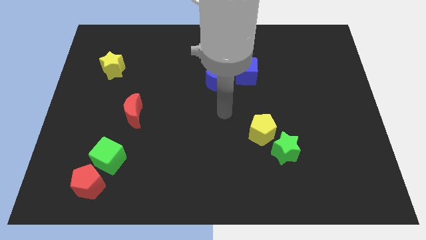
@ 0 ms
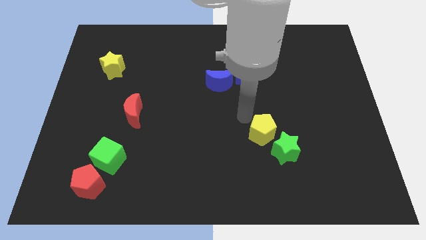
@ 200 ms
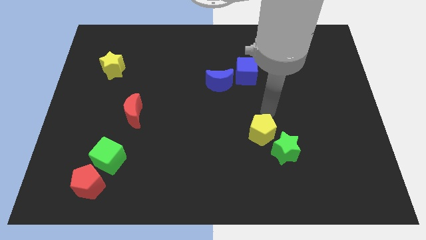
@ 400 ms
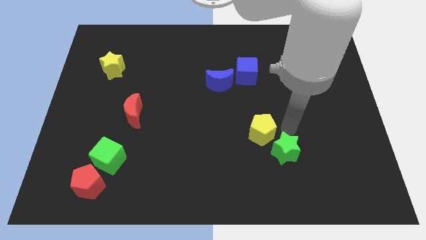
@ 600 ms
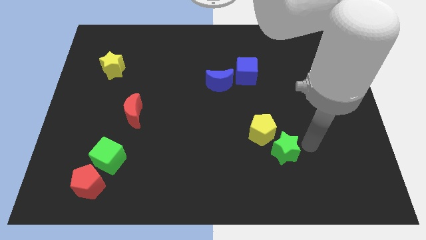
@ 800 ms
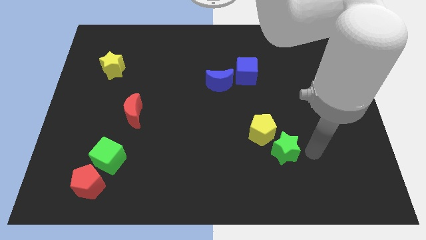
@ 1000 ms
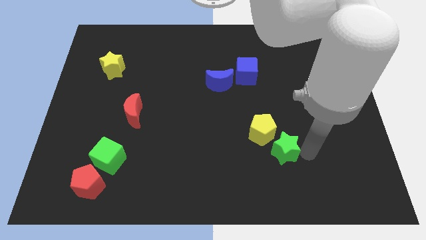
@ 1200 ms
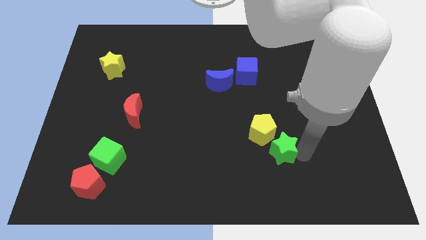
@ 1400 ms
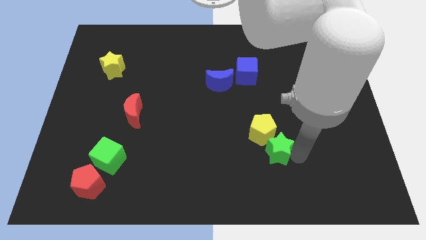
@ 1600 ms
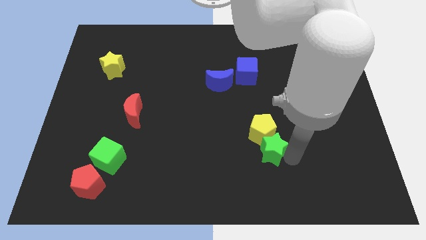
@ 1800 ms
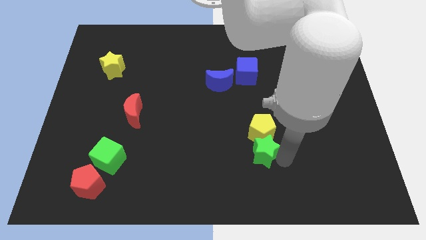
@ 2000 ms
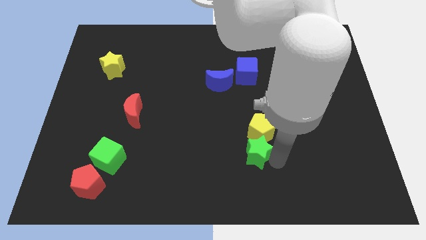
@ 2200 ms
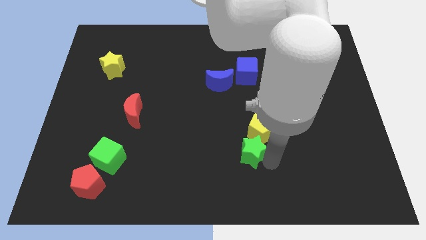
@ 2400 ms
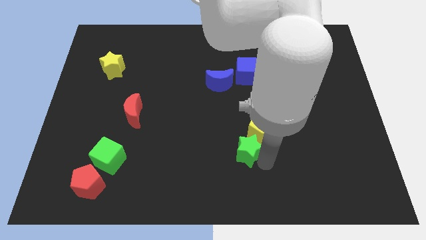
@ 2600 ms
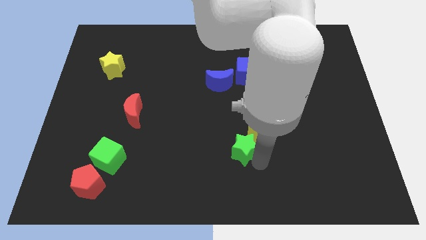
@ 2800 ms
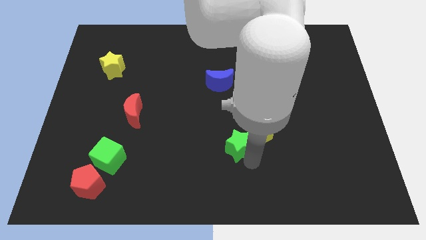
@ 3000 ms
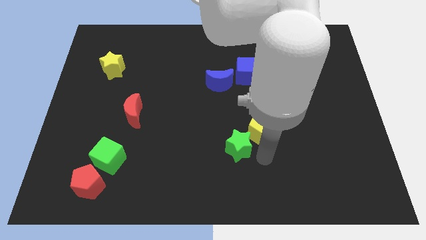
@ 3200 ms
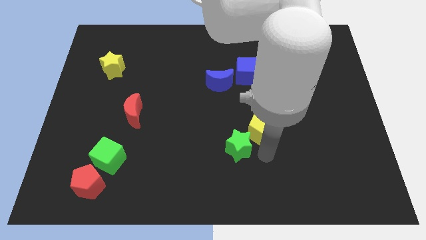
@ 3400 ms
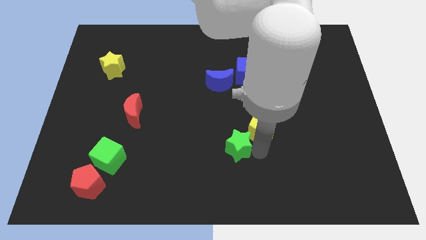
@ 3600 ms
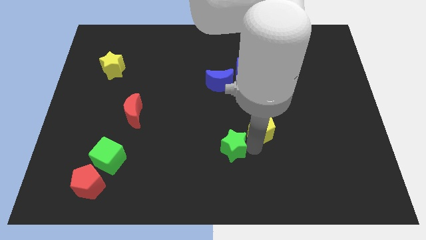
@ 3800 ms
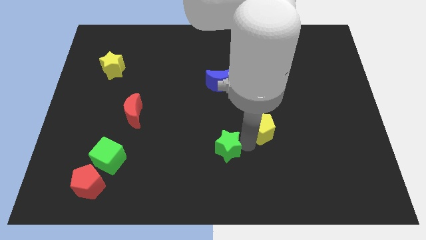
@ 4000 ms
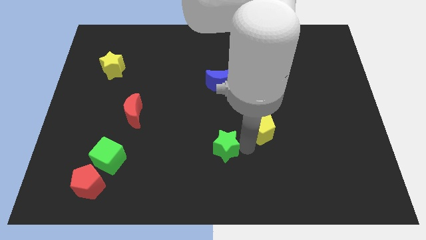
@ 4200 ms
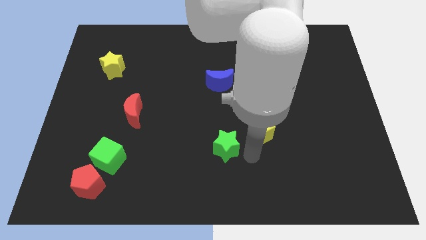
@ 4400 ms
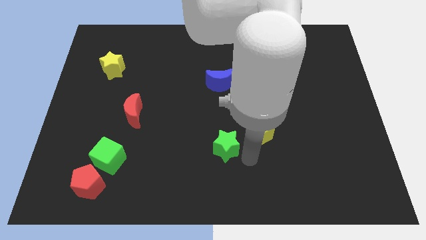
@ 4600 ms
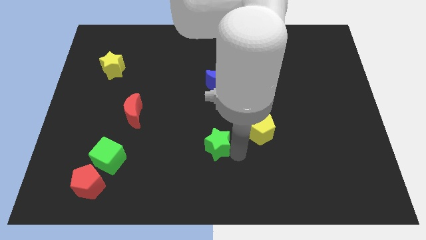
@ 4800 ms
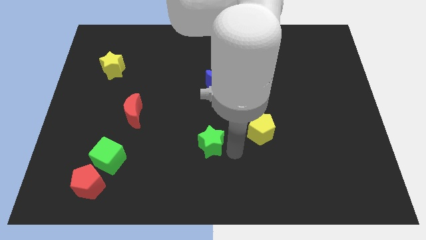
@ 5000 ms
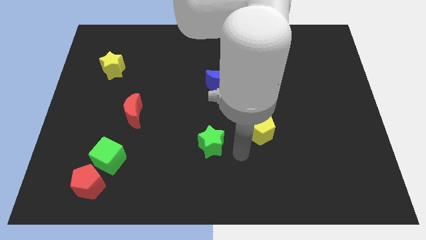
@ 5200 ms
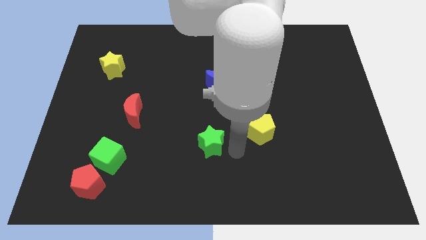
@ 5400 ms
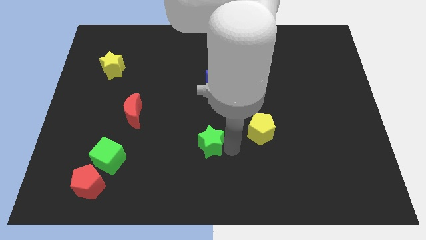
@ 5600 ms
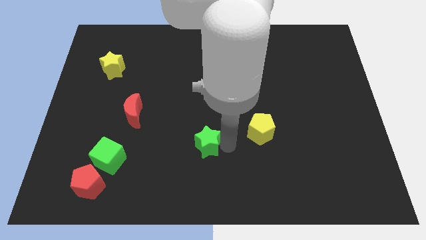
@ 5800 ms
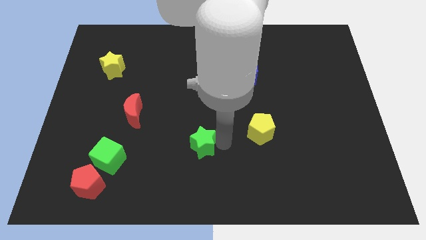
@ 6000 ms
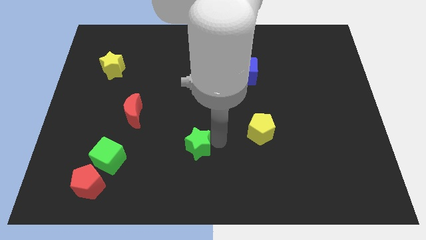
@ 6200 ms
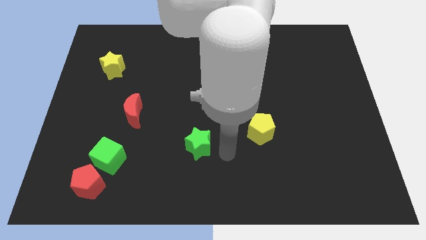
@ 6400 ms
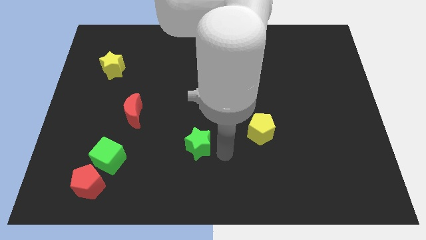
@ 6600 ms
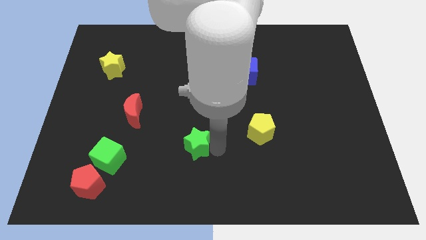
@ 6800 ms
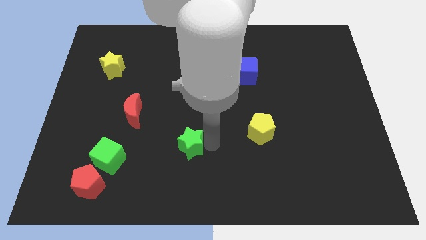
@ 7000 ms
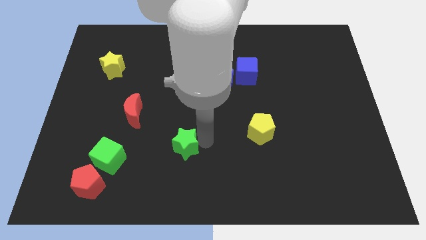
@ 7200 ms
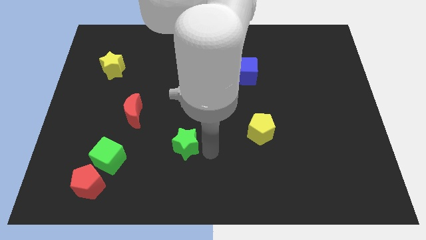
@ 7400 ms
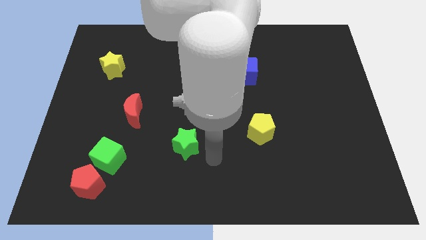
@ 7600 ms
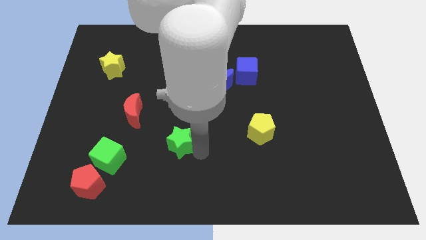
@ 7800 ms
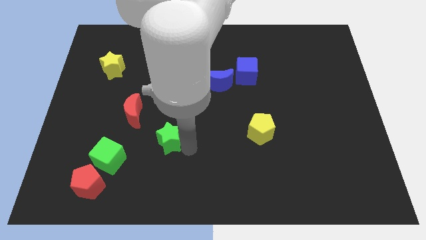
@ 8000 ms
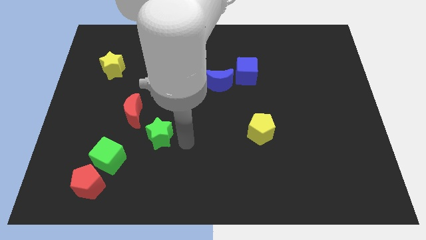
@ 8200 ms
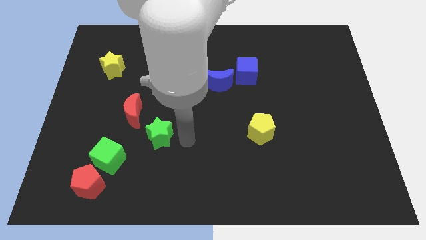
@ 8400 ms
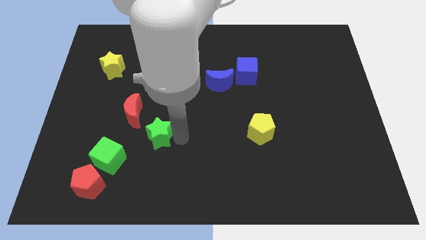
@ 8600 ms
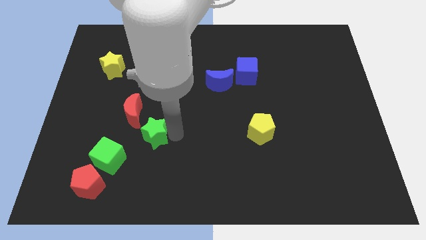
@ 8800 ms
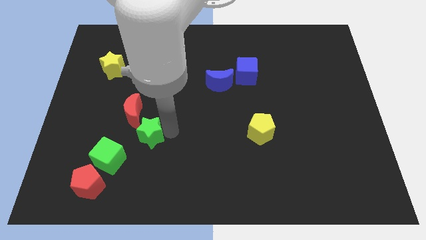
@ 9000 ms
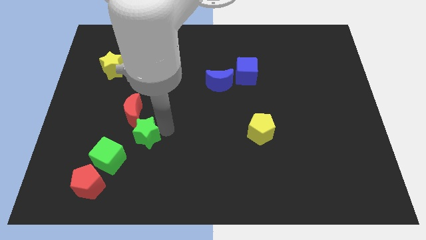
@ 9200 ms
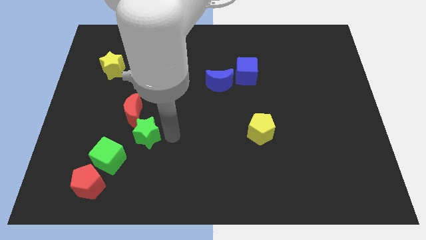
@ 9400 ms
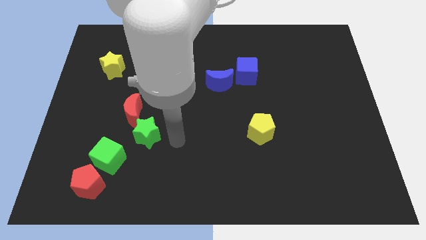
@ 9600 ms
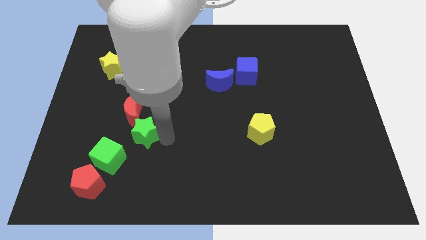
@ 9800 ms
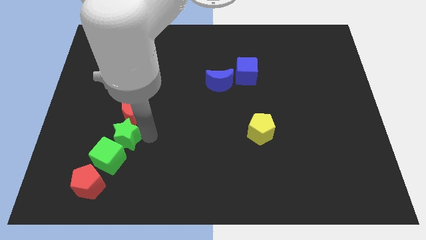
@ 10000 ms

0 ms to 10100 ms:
slide the green star diagonally down and to the left of the red moon

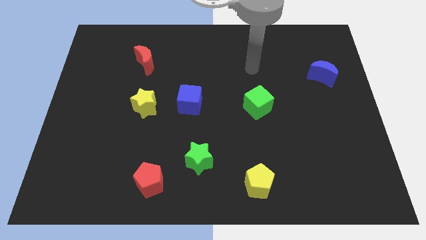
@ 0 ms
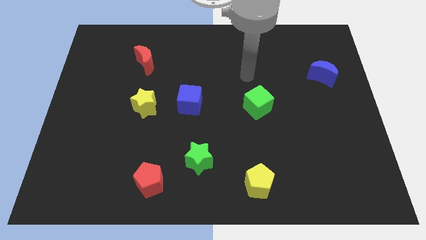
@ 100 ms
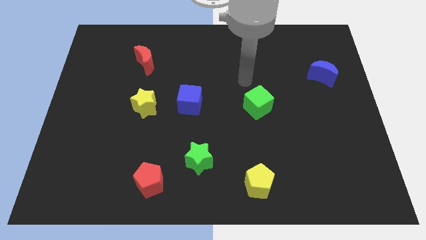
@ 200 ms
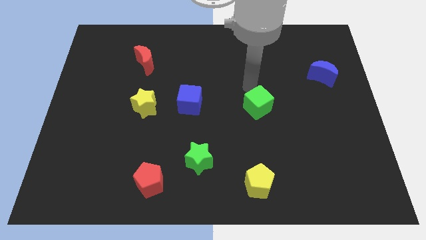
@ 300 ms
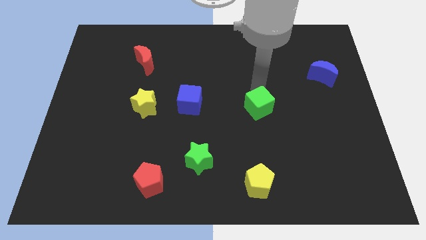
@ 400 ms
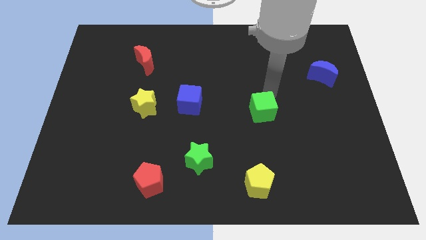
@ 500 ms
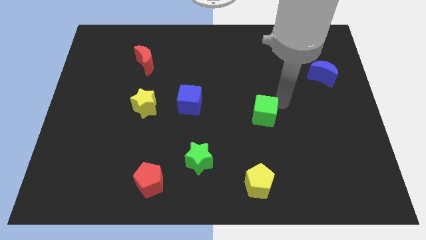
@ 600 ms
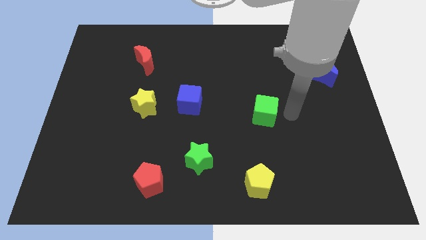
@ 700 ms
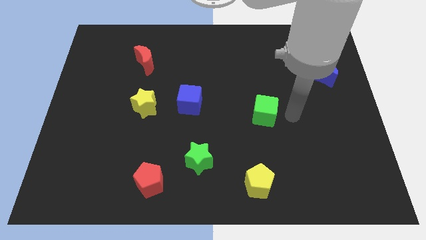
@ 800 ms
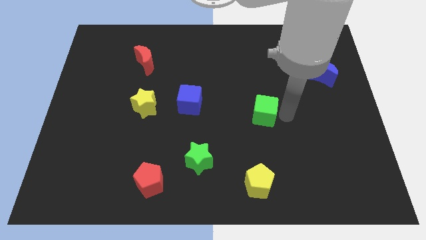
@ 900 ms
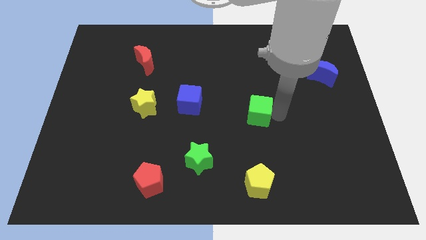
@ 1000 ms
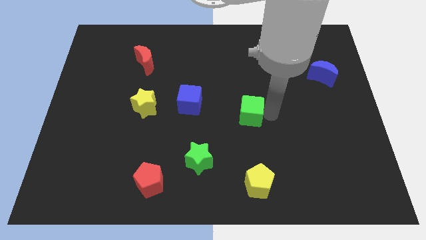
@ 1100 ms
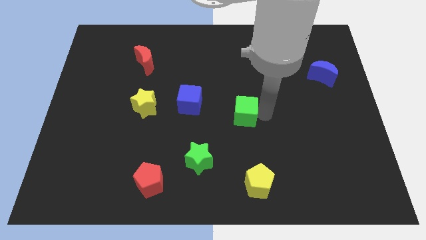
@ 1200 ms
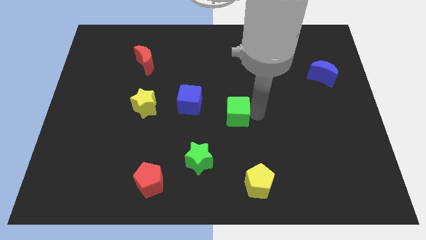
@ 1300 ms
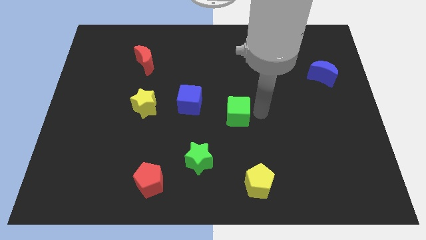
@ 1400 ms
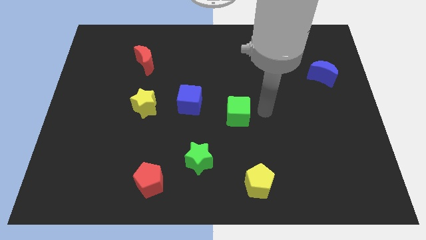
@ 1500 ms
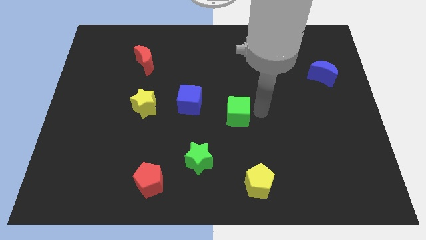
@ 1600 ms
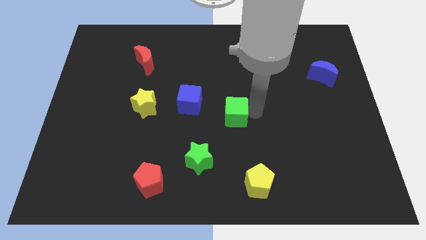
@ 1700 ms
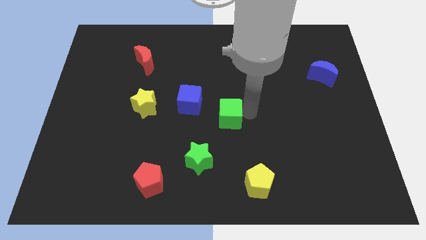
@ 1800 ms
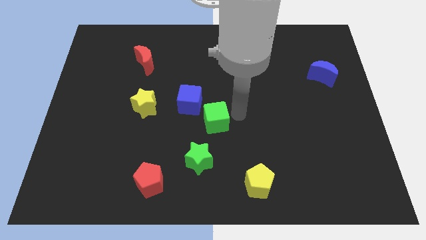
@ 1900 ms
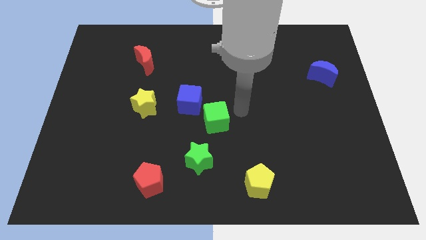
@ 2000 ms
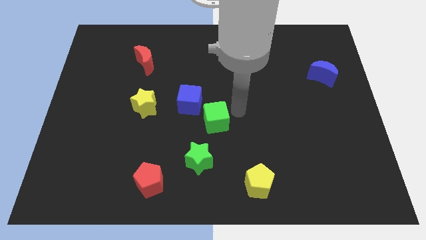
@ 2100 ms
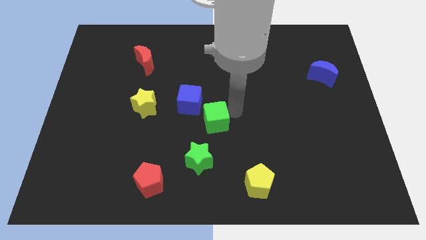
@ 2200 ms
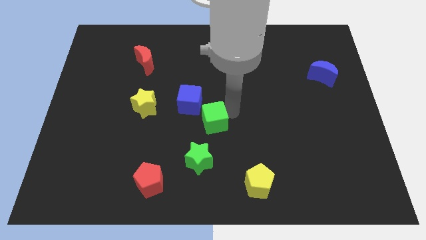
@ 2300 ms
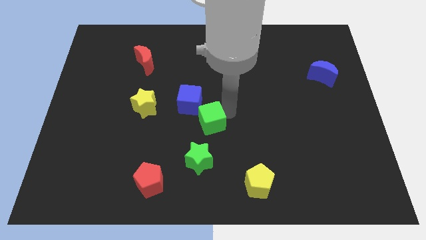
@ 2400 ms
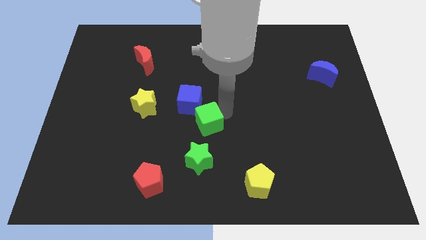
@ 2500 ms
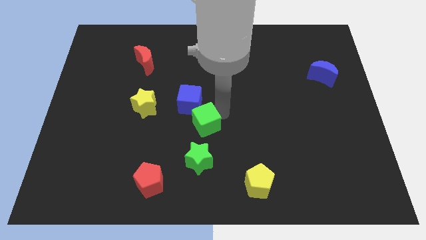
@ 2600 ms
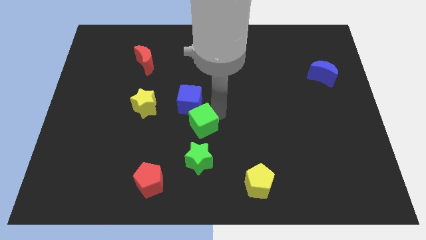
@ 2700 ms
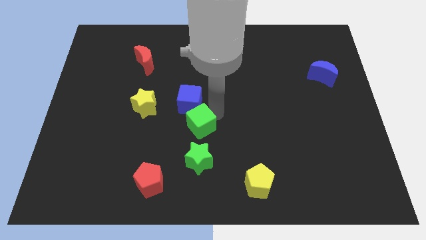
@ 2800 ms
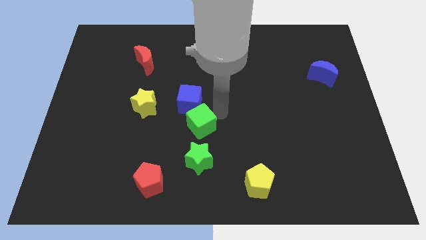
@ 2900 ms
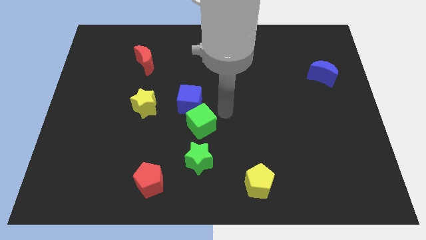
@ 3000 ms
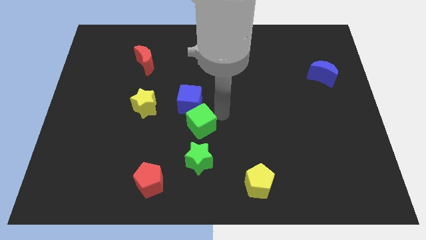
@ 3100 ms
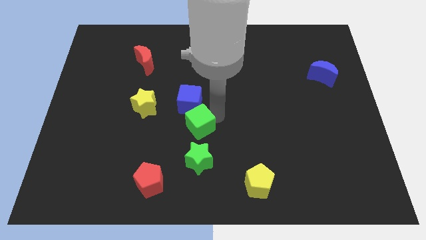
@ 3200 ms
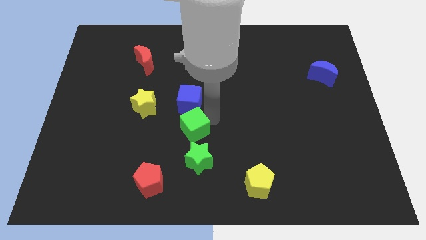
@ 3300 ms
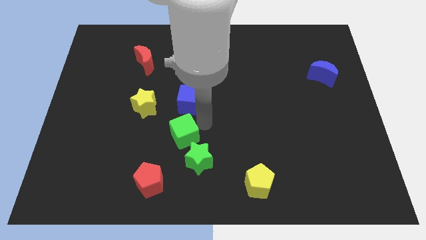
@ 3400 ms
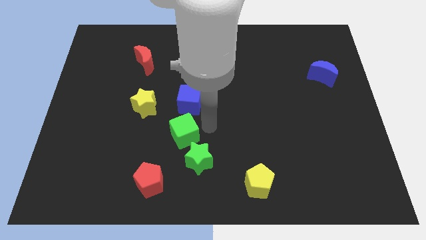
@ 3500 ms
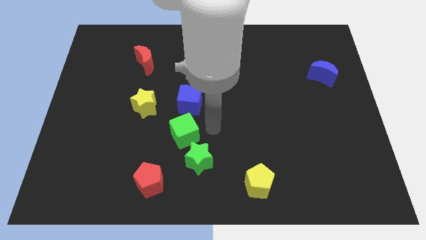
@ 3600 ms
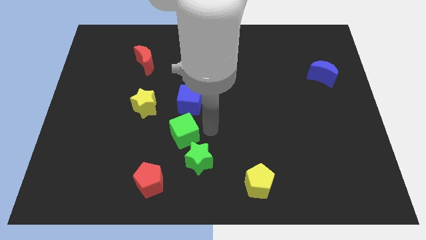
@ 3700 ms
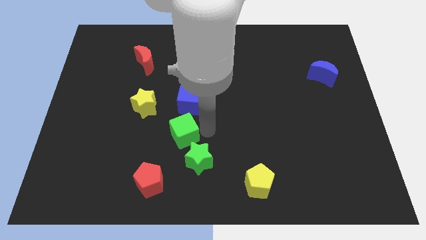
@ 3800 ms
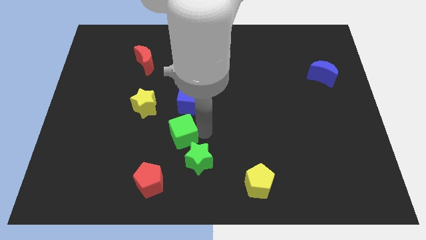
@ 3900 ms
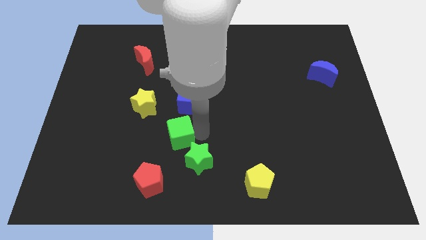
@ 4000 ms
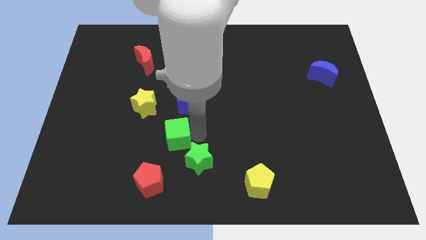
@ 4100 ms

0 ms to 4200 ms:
slide the green cube to the top of the red pentagon
